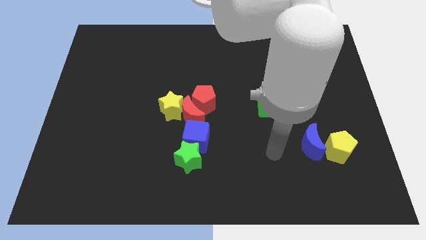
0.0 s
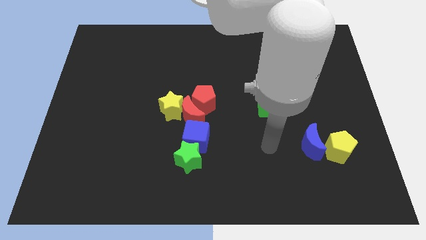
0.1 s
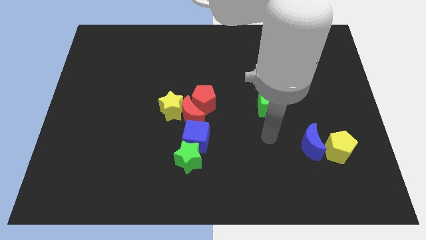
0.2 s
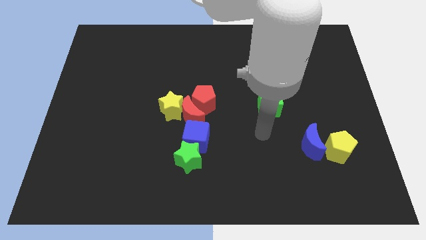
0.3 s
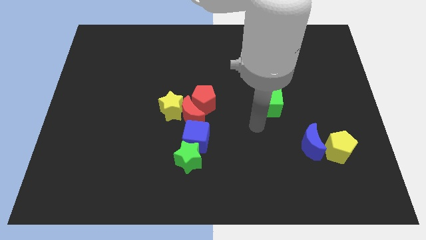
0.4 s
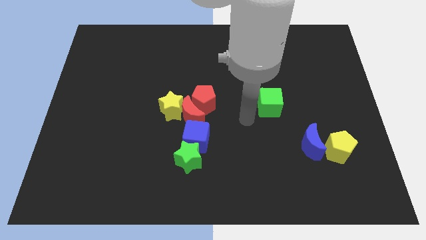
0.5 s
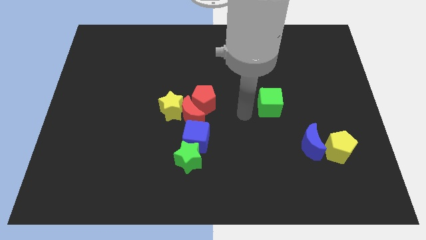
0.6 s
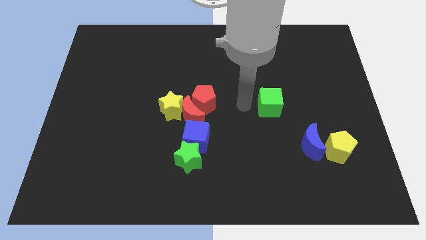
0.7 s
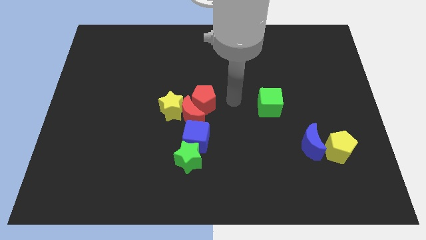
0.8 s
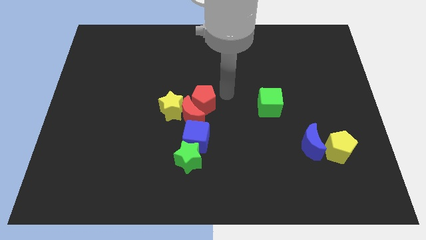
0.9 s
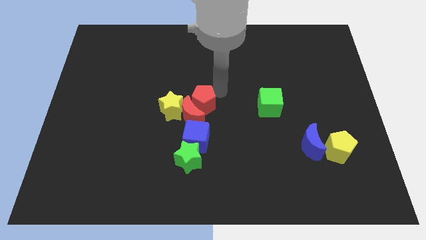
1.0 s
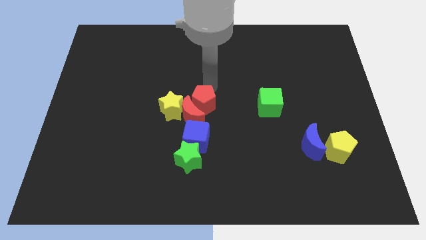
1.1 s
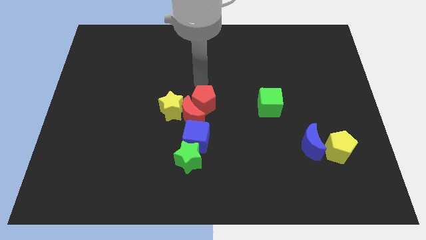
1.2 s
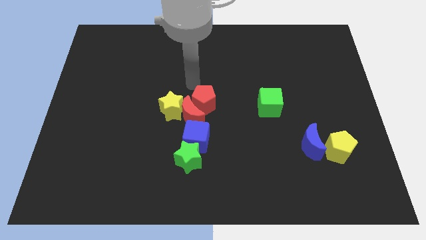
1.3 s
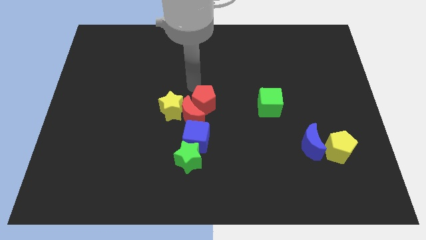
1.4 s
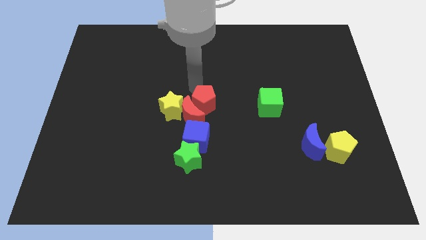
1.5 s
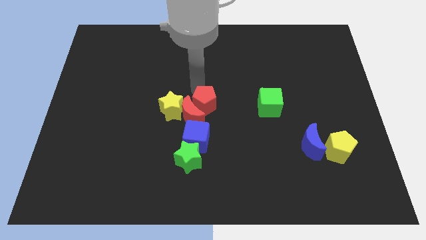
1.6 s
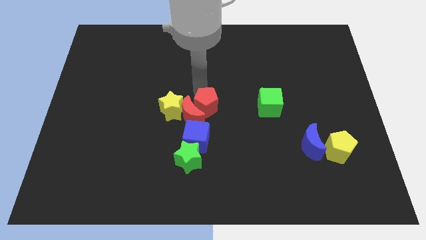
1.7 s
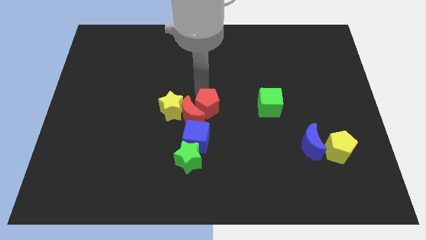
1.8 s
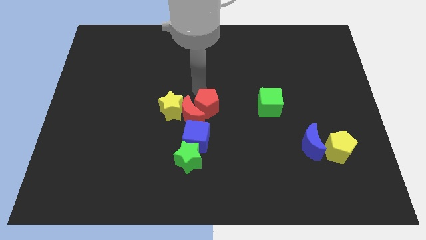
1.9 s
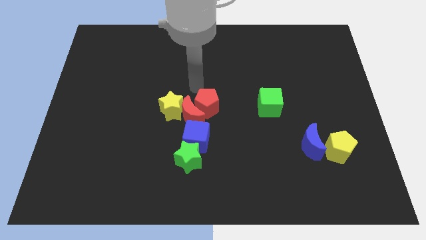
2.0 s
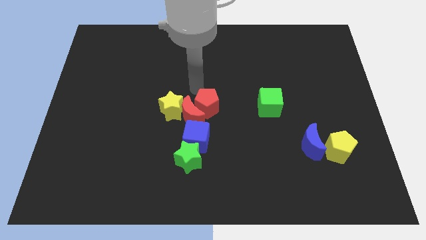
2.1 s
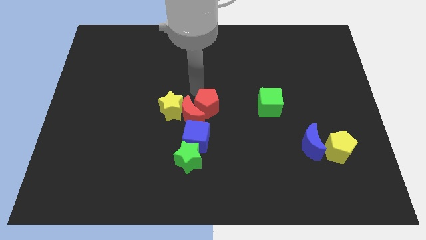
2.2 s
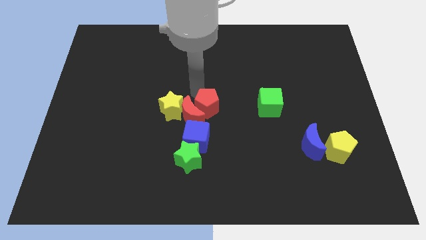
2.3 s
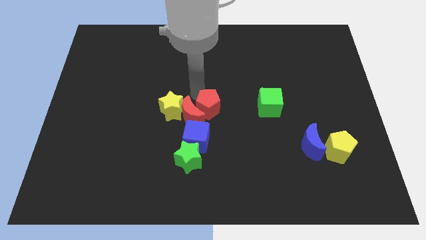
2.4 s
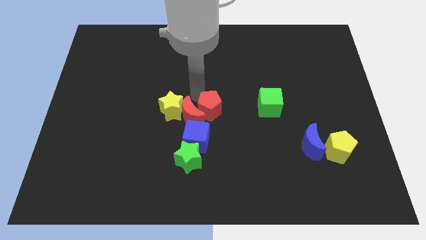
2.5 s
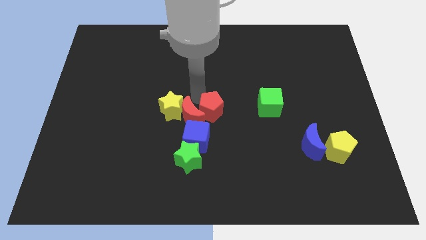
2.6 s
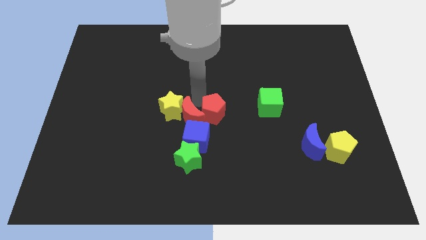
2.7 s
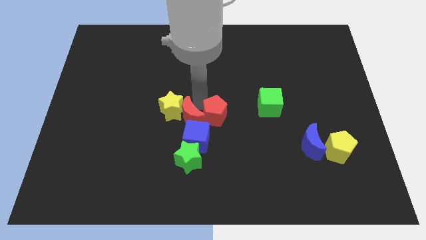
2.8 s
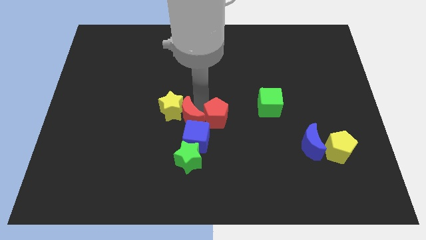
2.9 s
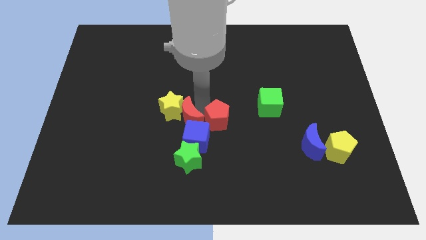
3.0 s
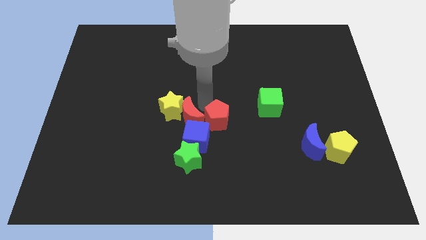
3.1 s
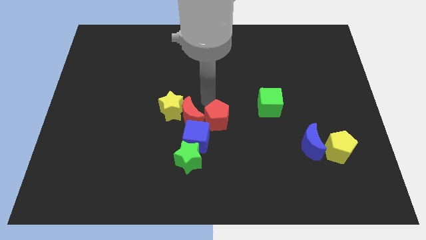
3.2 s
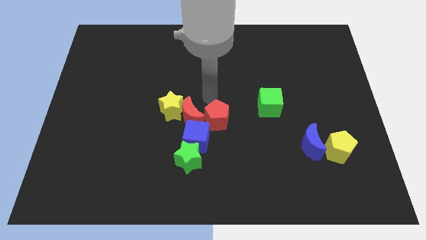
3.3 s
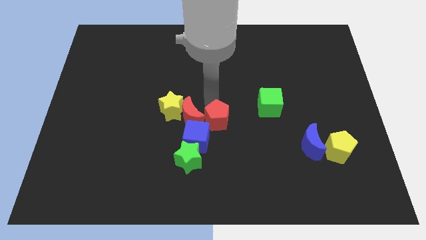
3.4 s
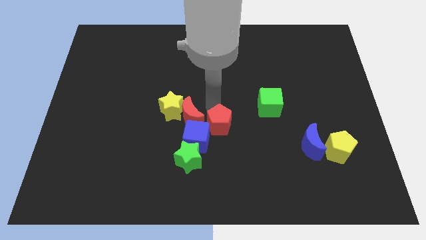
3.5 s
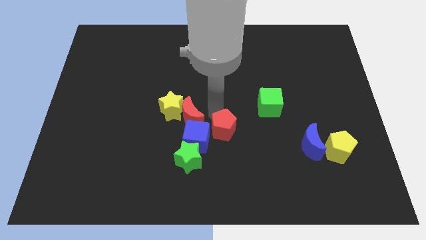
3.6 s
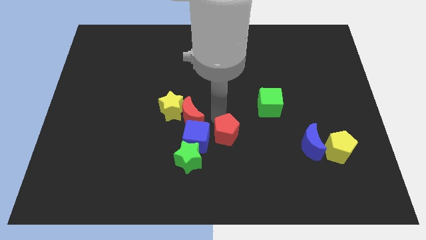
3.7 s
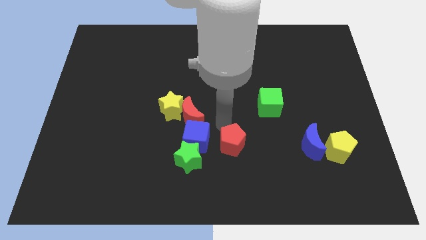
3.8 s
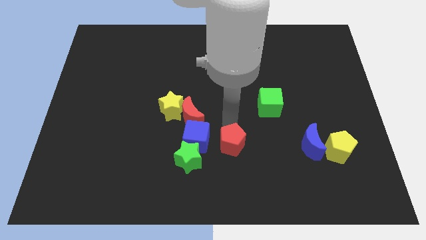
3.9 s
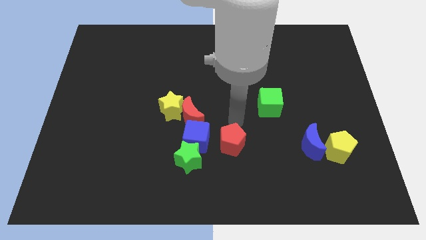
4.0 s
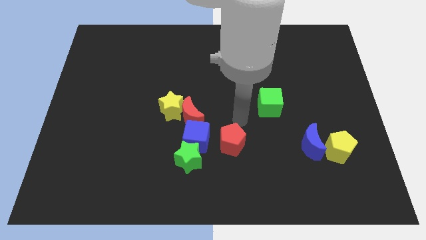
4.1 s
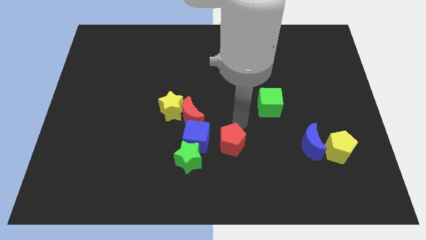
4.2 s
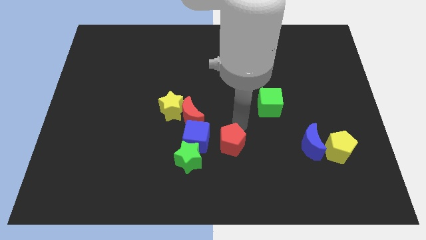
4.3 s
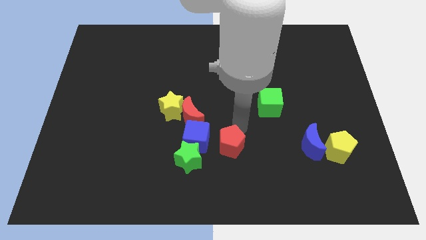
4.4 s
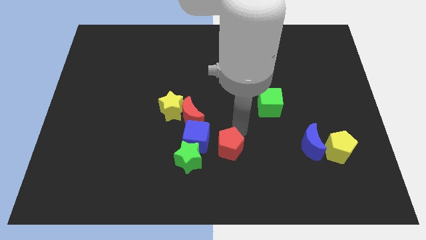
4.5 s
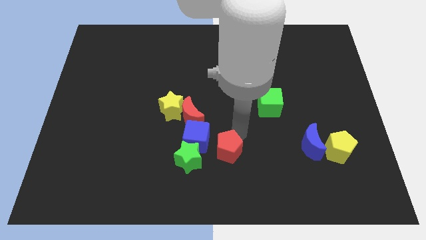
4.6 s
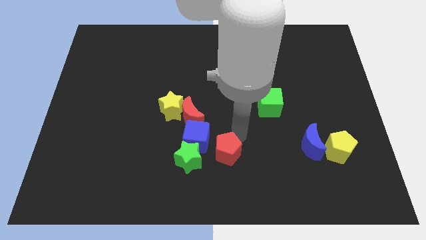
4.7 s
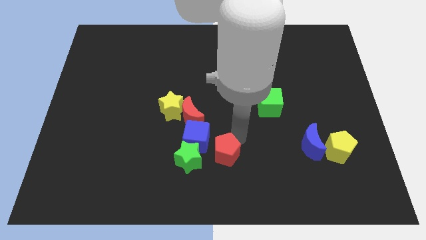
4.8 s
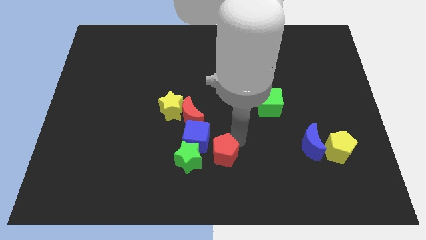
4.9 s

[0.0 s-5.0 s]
push the red pentagon to the bottom
